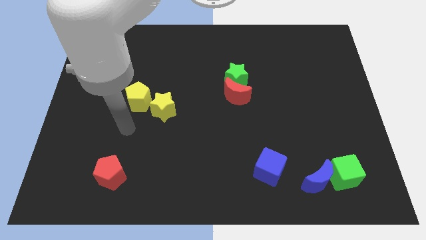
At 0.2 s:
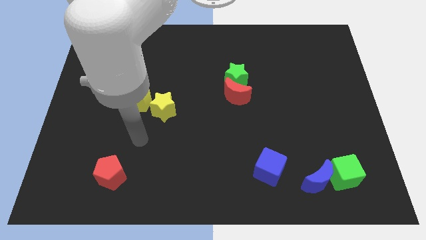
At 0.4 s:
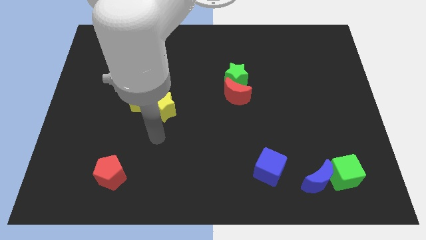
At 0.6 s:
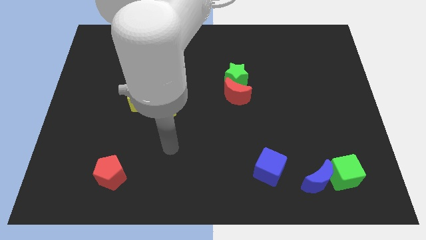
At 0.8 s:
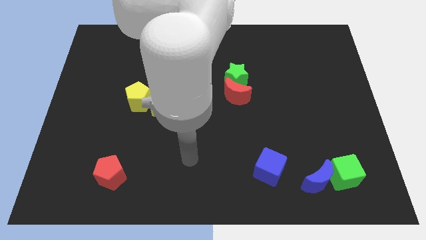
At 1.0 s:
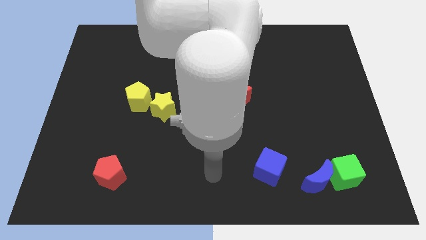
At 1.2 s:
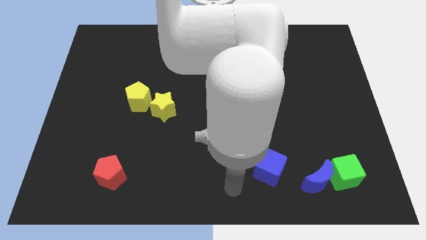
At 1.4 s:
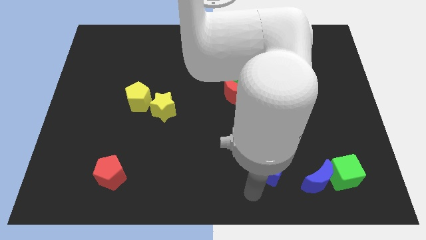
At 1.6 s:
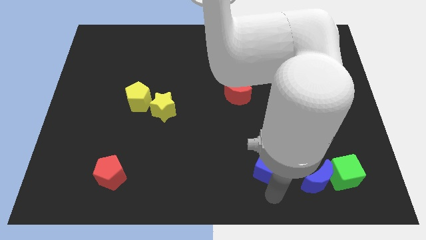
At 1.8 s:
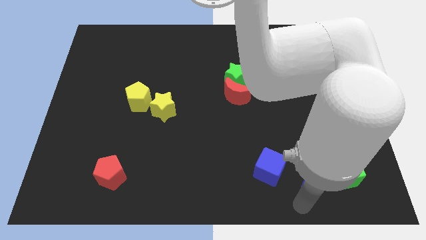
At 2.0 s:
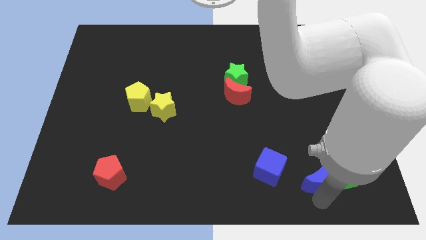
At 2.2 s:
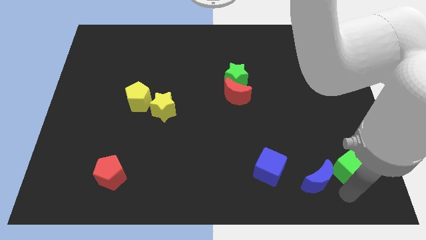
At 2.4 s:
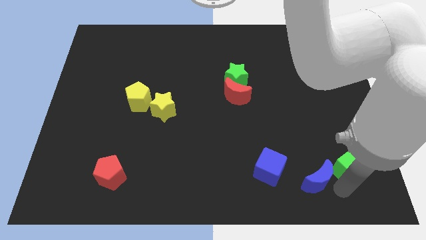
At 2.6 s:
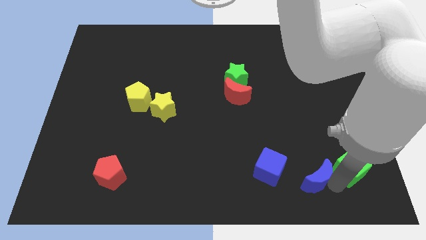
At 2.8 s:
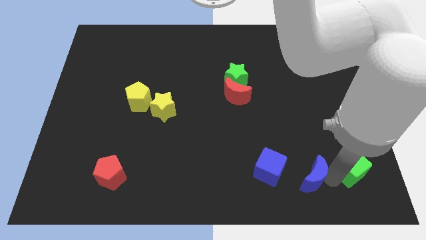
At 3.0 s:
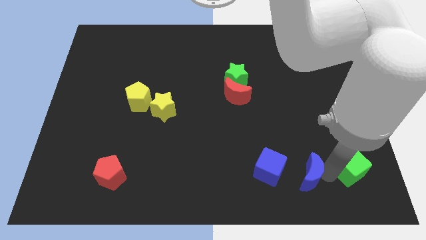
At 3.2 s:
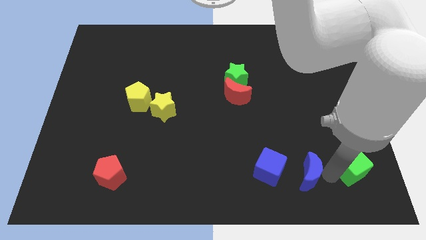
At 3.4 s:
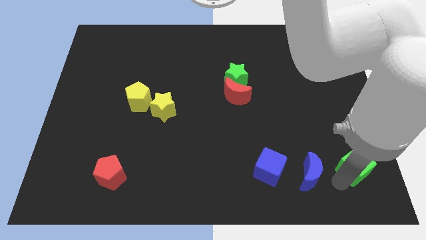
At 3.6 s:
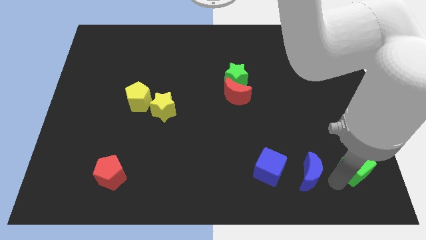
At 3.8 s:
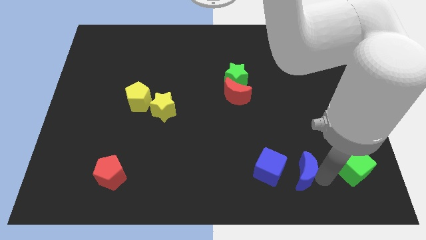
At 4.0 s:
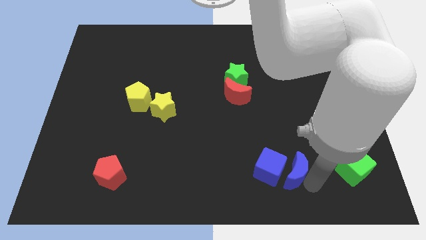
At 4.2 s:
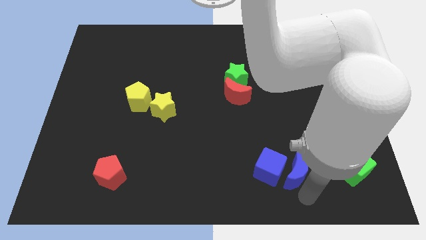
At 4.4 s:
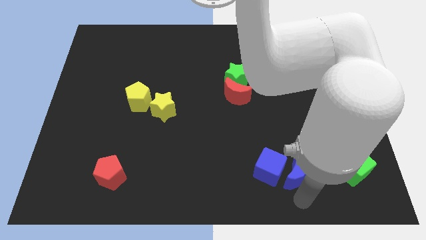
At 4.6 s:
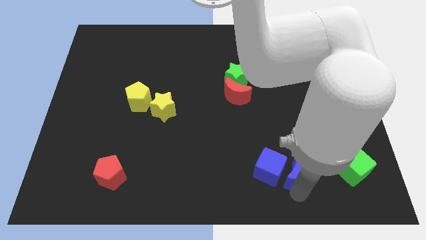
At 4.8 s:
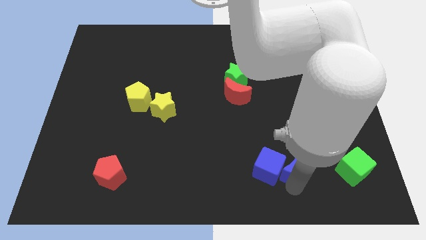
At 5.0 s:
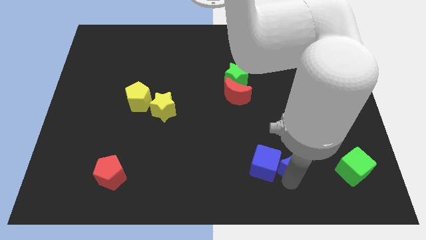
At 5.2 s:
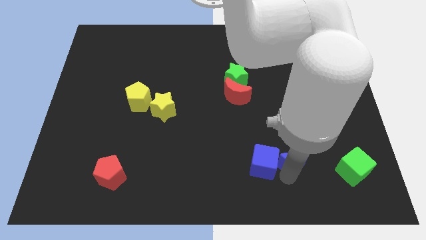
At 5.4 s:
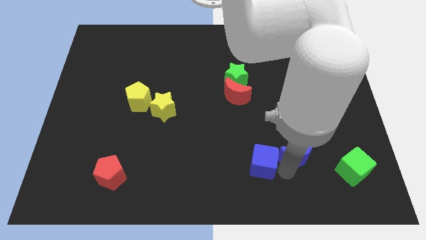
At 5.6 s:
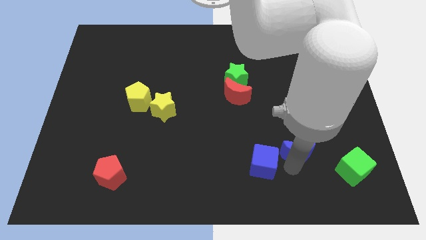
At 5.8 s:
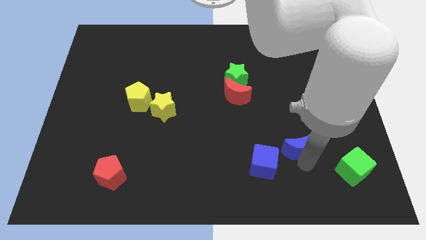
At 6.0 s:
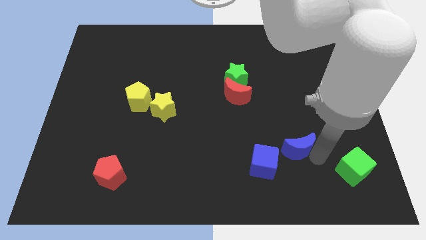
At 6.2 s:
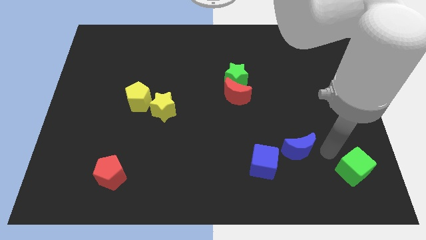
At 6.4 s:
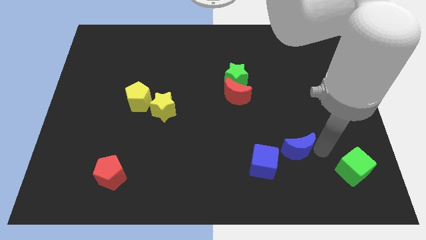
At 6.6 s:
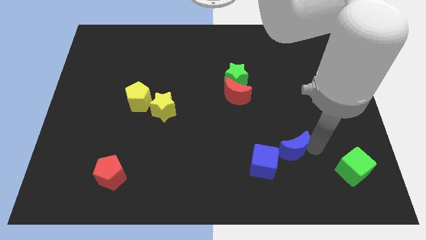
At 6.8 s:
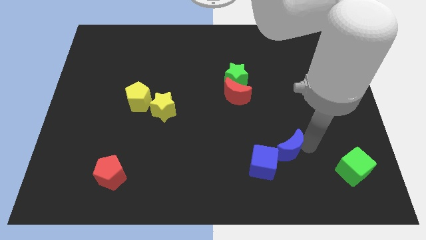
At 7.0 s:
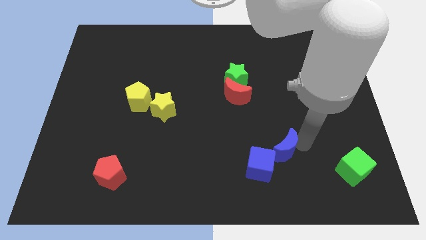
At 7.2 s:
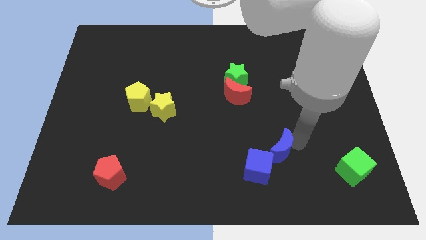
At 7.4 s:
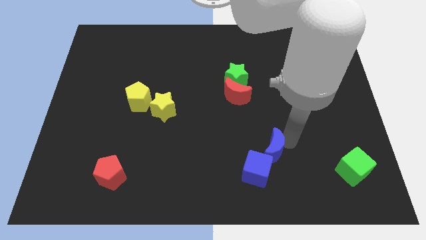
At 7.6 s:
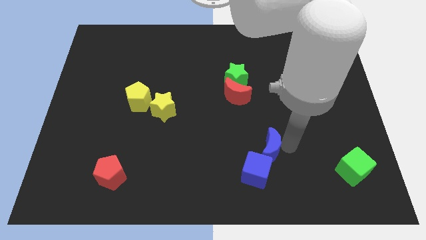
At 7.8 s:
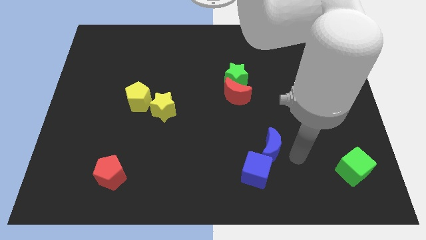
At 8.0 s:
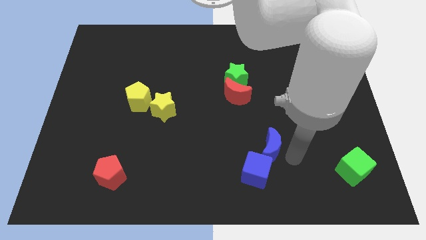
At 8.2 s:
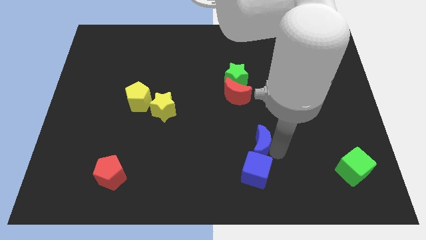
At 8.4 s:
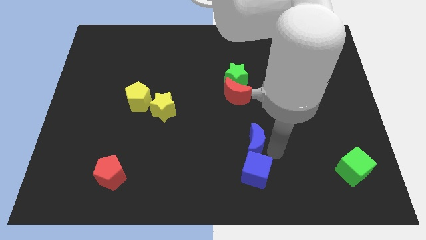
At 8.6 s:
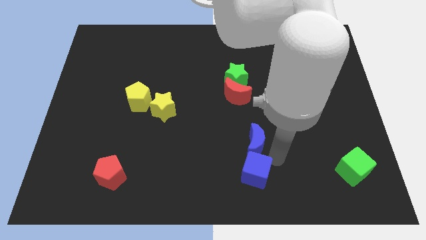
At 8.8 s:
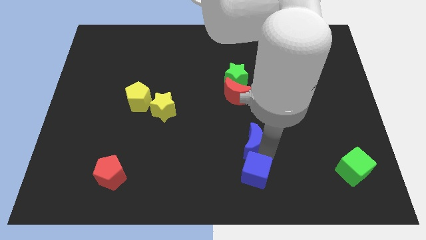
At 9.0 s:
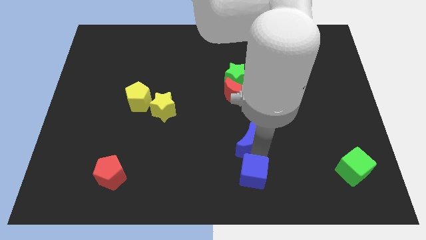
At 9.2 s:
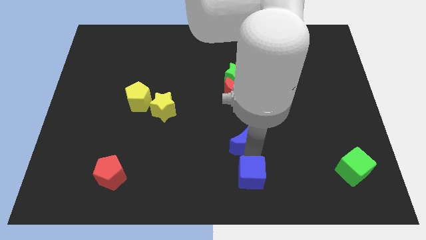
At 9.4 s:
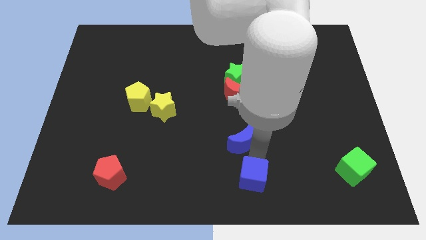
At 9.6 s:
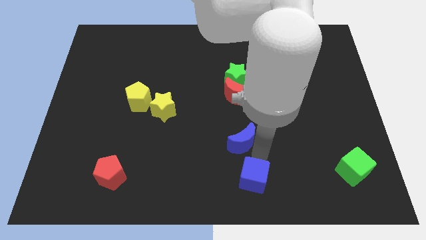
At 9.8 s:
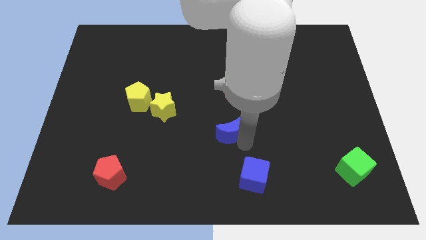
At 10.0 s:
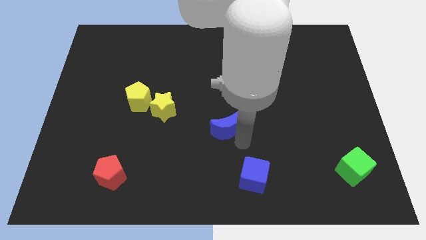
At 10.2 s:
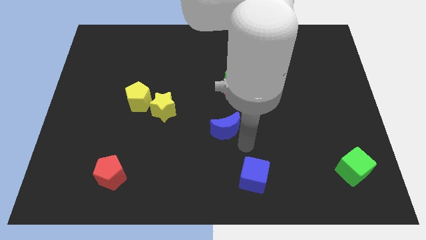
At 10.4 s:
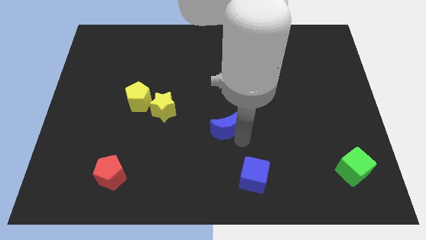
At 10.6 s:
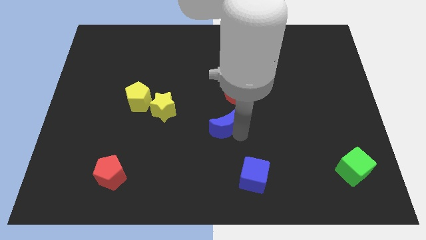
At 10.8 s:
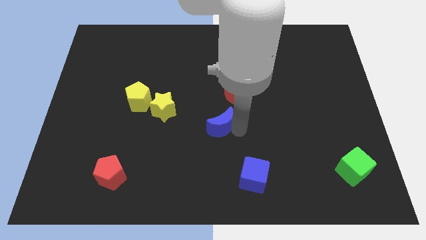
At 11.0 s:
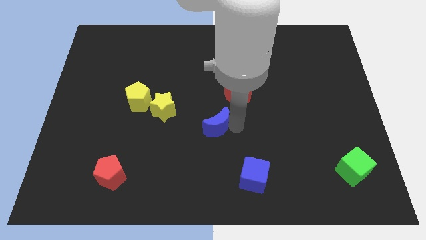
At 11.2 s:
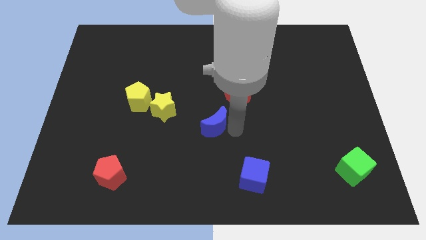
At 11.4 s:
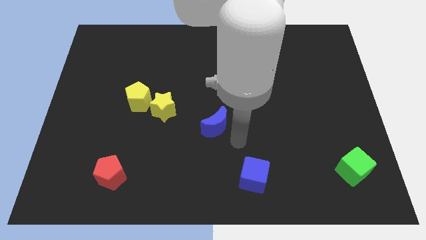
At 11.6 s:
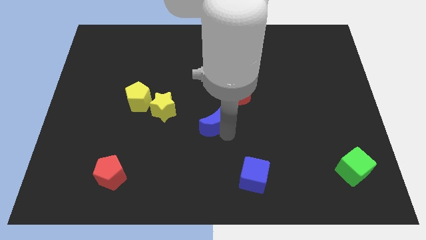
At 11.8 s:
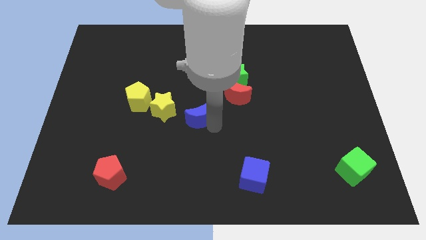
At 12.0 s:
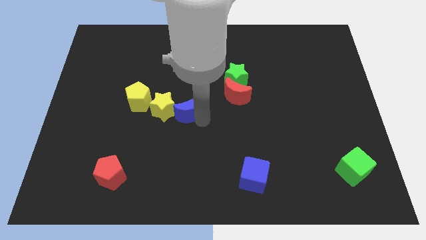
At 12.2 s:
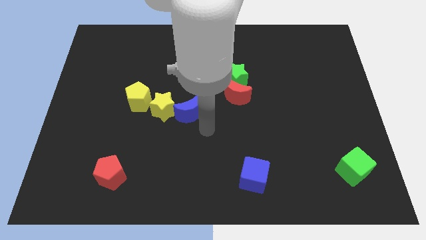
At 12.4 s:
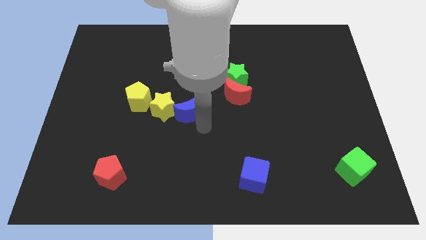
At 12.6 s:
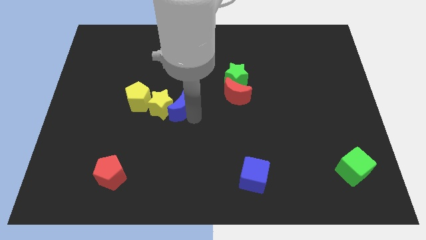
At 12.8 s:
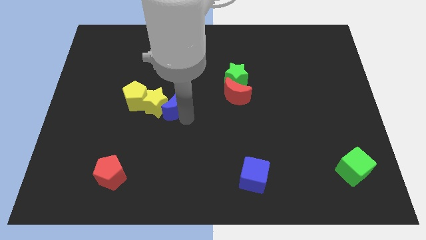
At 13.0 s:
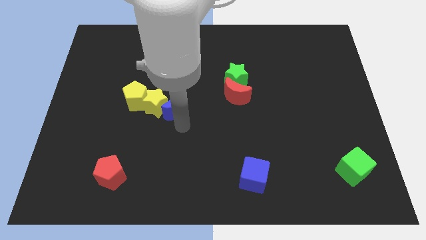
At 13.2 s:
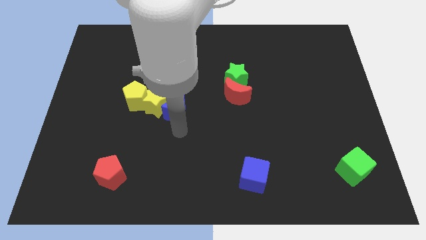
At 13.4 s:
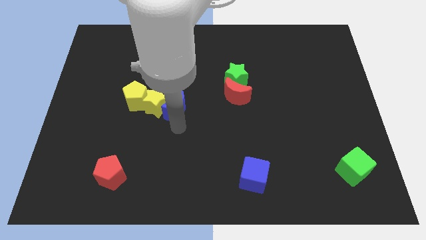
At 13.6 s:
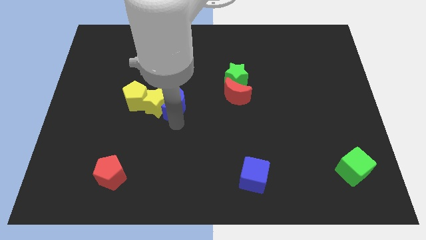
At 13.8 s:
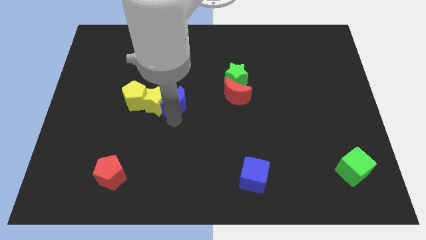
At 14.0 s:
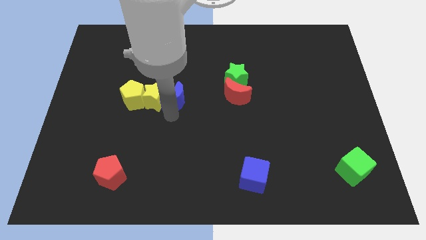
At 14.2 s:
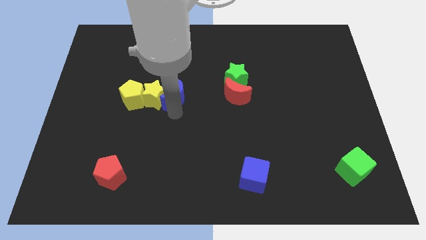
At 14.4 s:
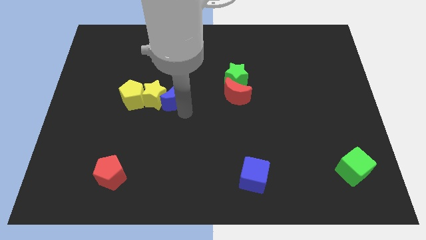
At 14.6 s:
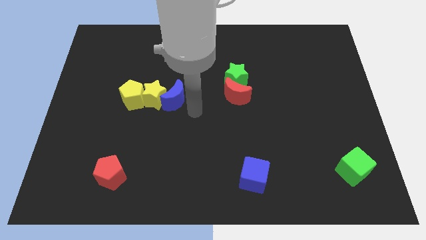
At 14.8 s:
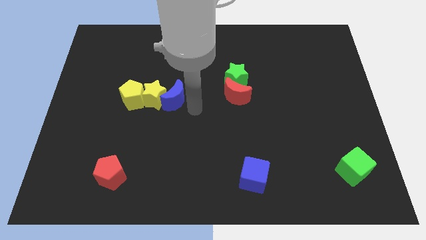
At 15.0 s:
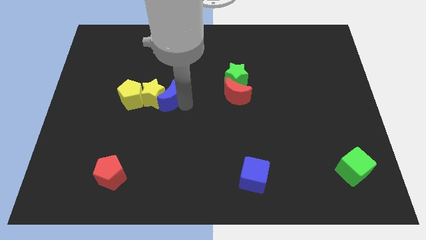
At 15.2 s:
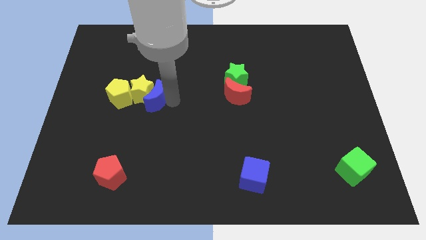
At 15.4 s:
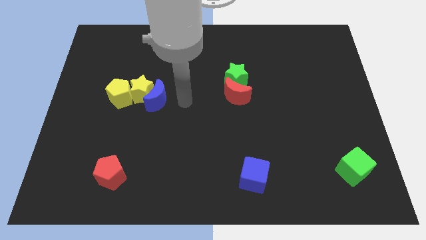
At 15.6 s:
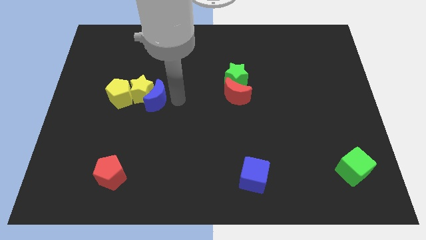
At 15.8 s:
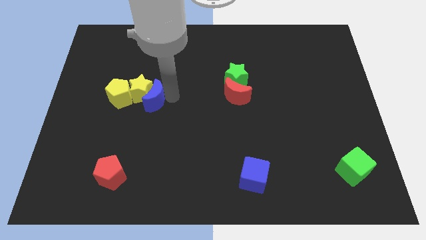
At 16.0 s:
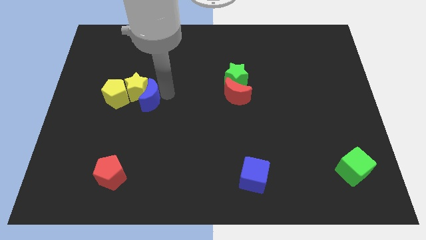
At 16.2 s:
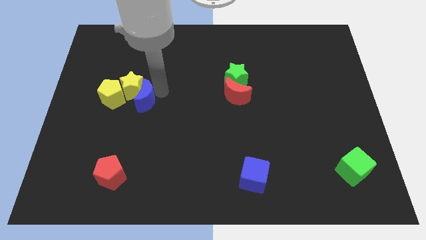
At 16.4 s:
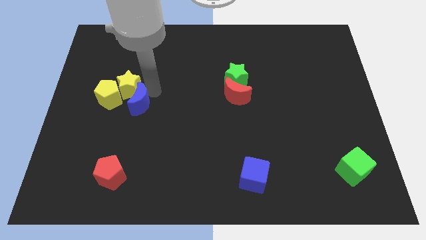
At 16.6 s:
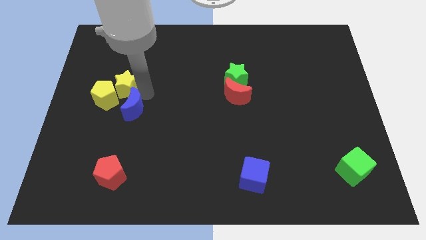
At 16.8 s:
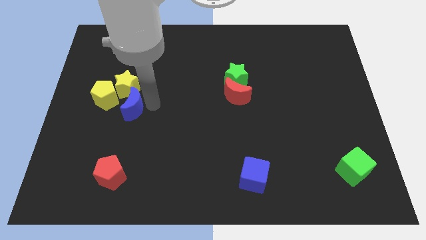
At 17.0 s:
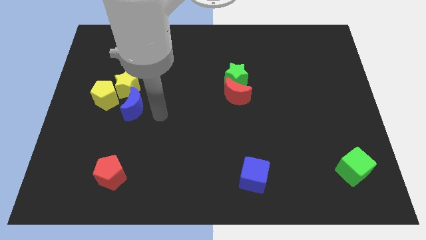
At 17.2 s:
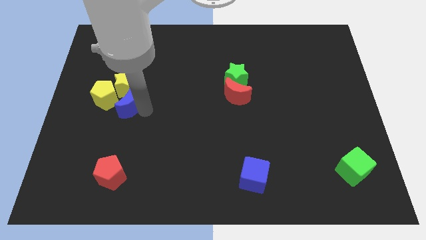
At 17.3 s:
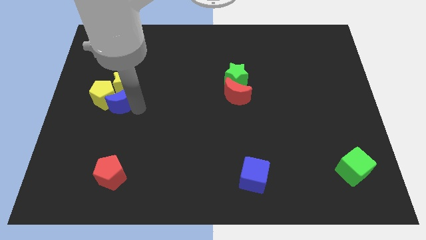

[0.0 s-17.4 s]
move the blue moon next to the yellow pentagon
